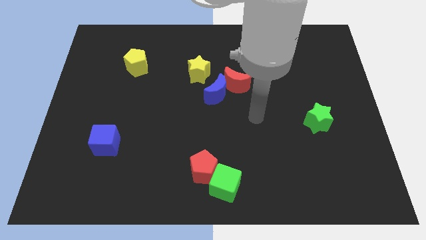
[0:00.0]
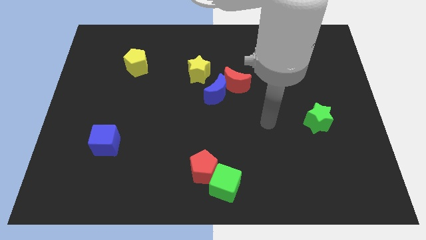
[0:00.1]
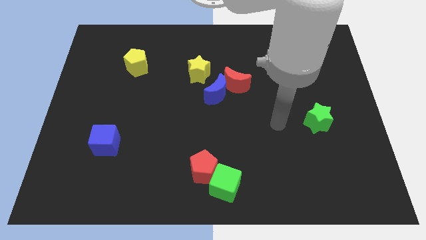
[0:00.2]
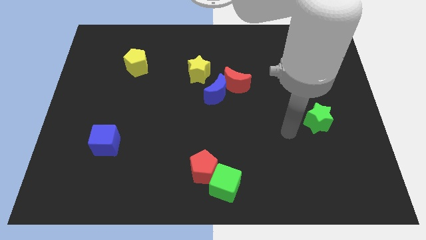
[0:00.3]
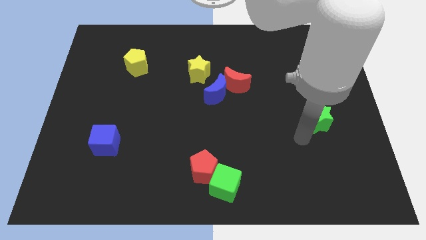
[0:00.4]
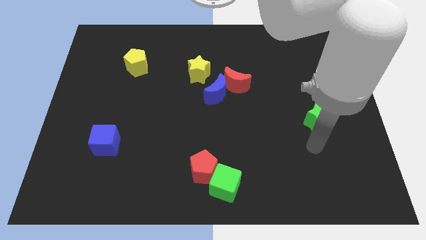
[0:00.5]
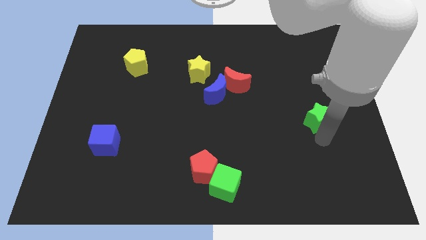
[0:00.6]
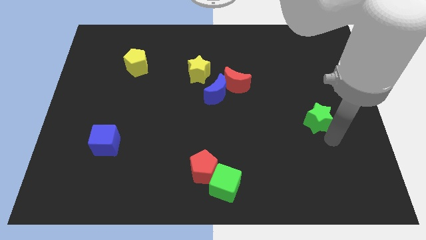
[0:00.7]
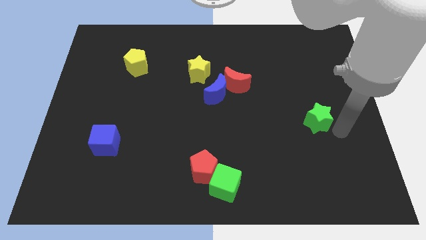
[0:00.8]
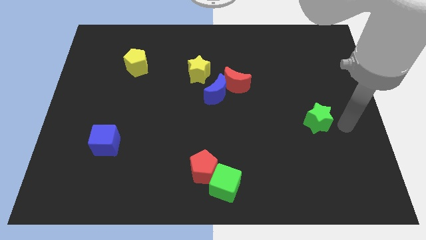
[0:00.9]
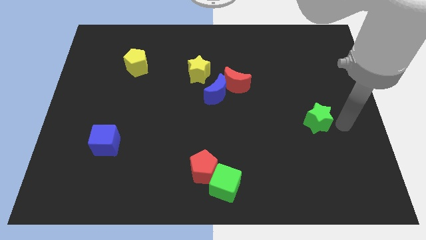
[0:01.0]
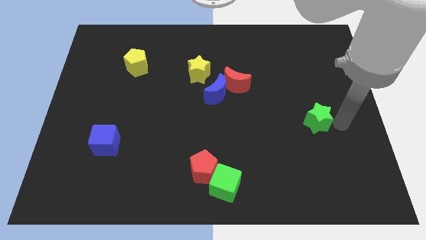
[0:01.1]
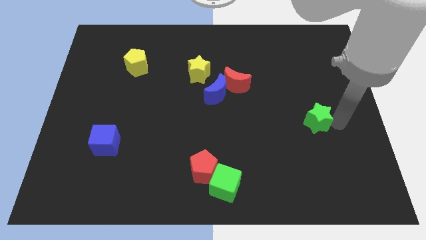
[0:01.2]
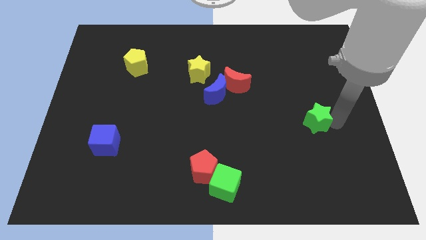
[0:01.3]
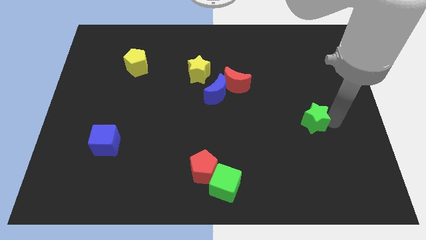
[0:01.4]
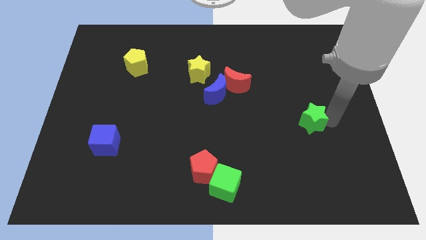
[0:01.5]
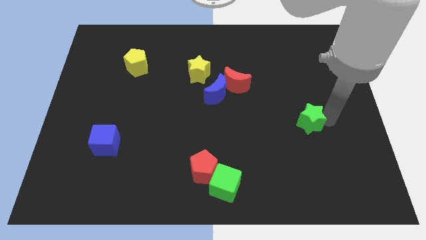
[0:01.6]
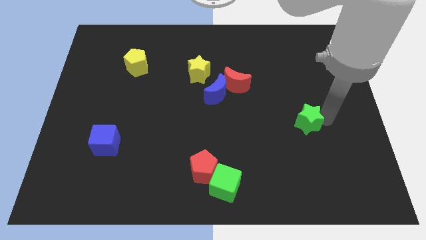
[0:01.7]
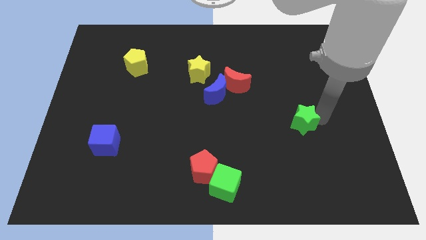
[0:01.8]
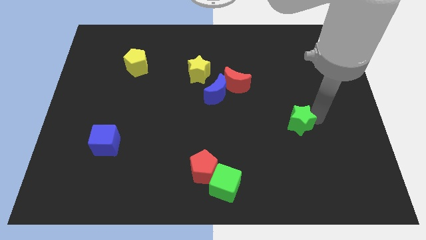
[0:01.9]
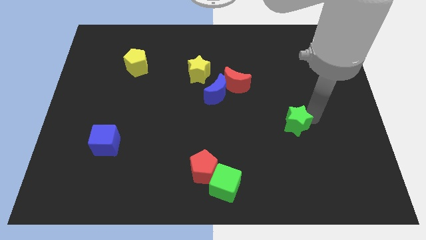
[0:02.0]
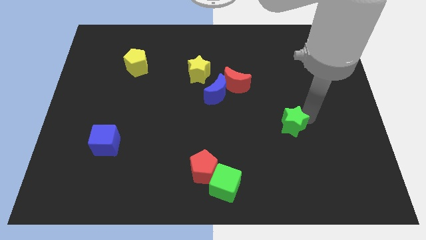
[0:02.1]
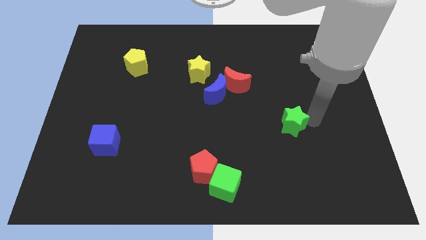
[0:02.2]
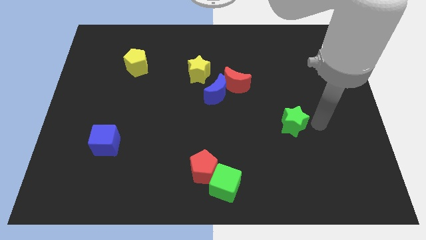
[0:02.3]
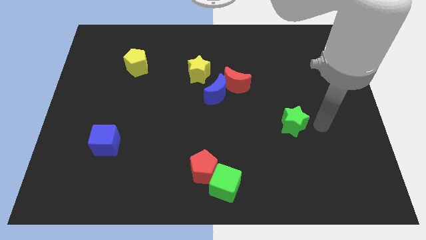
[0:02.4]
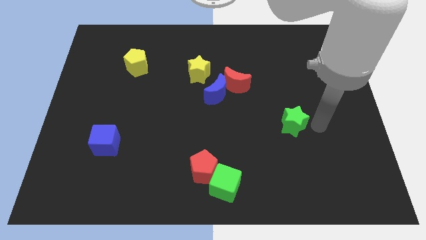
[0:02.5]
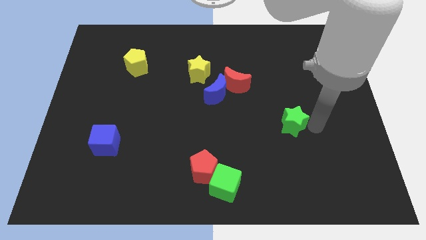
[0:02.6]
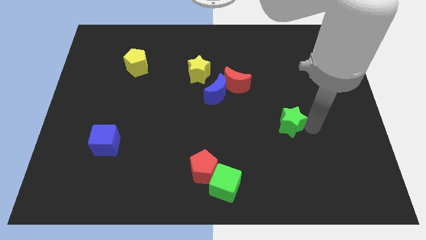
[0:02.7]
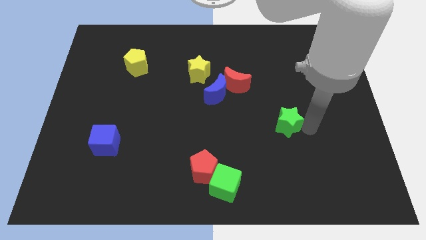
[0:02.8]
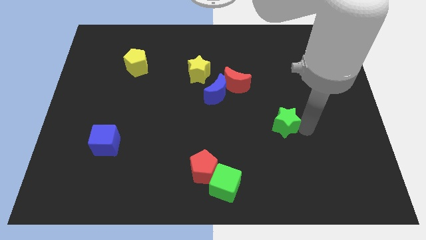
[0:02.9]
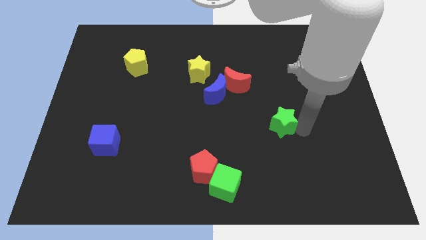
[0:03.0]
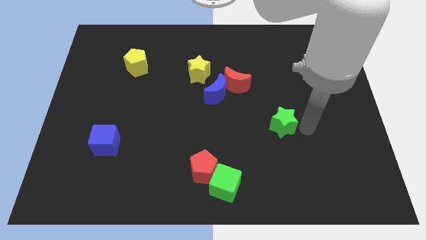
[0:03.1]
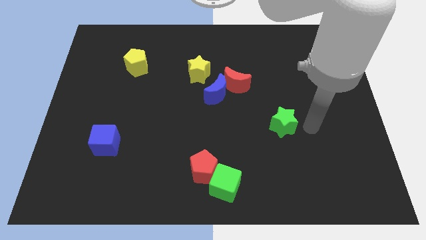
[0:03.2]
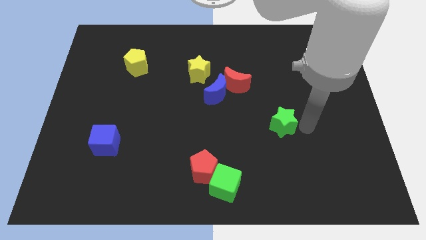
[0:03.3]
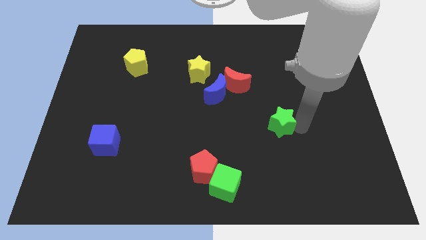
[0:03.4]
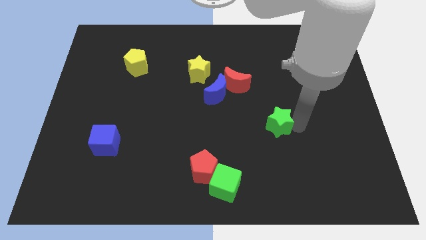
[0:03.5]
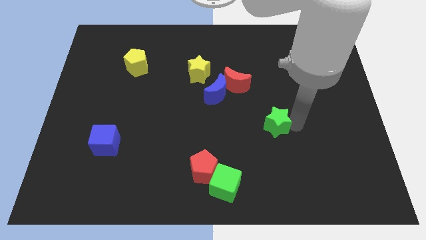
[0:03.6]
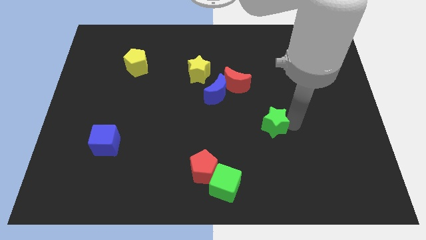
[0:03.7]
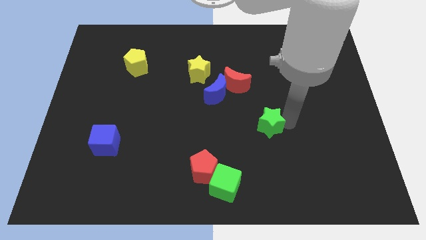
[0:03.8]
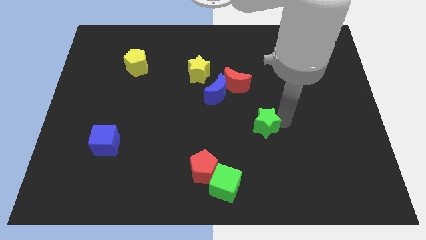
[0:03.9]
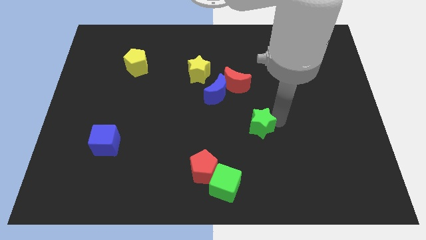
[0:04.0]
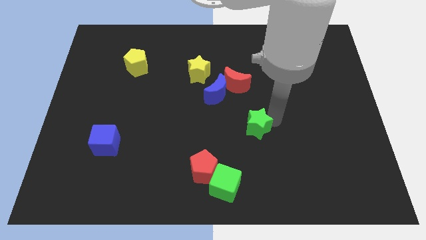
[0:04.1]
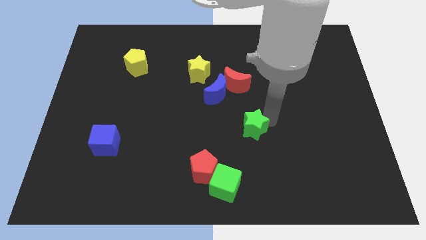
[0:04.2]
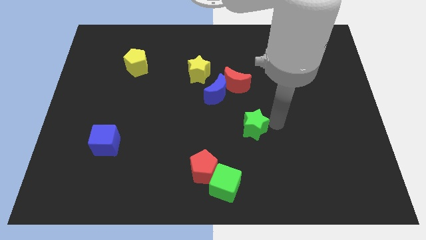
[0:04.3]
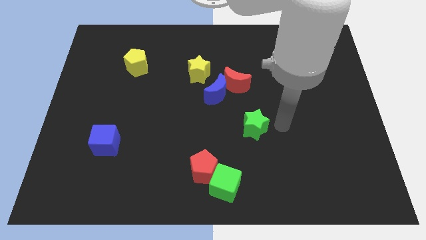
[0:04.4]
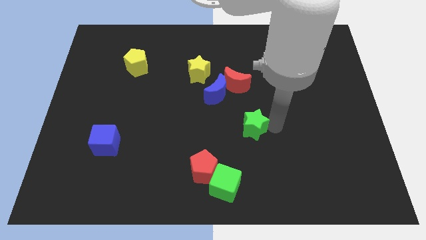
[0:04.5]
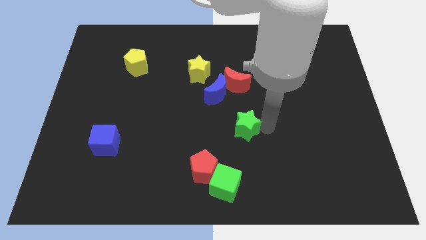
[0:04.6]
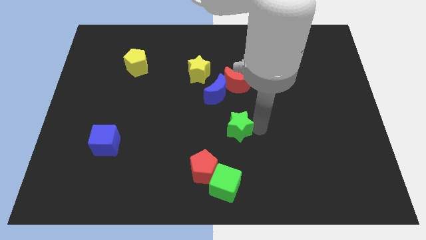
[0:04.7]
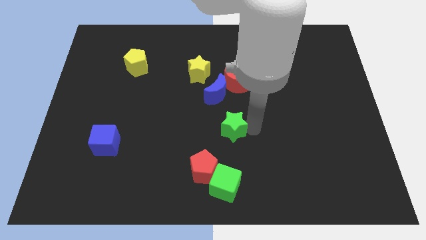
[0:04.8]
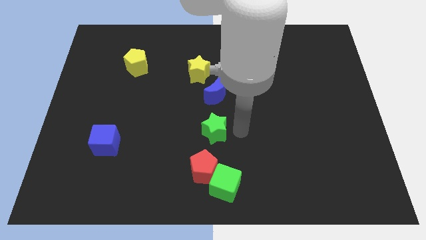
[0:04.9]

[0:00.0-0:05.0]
slide the green star to the left

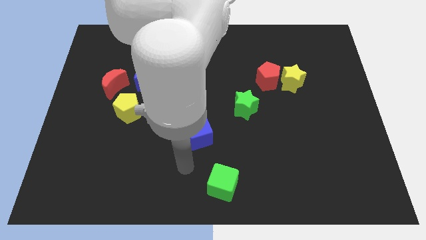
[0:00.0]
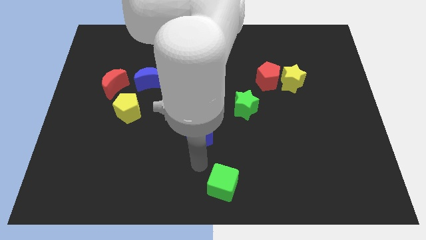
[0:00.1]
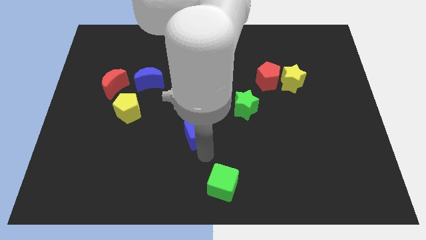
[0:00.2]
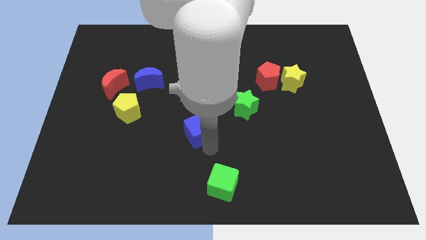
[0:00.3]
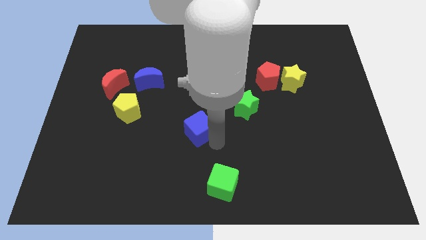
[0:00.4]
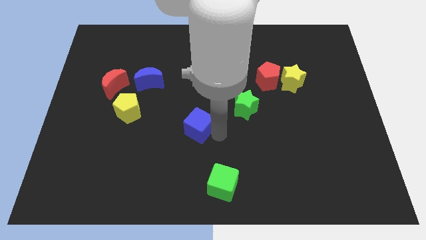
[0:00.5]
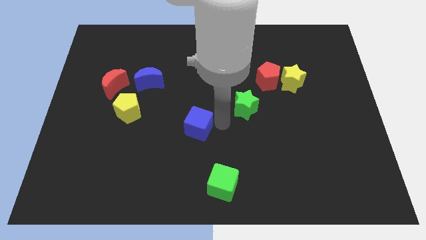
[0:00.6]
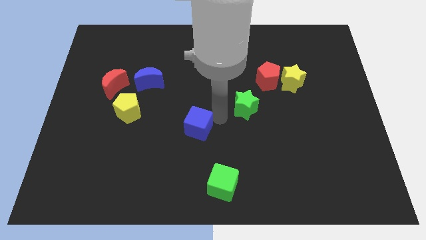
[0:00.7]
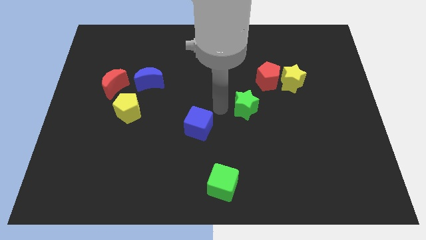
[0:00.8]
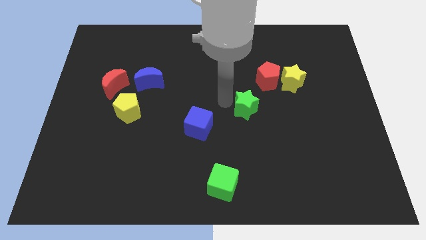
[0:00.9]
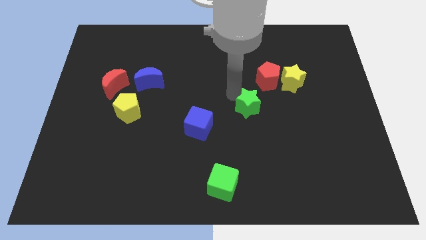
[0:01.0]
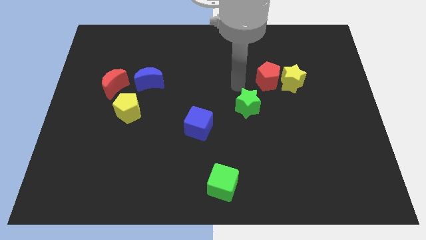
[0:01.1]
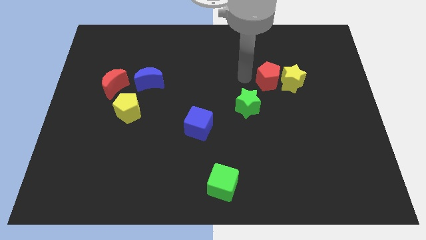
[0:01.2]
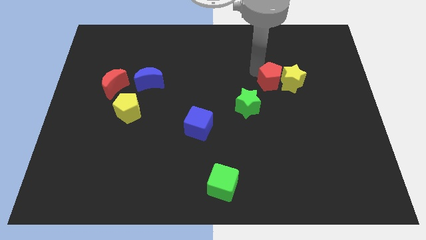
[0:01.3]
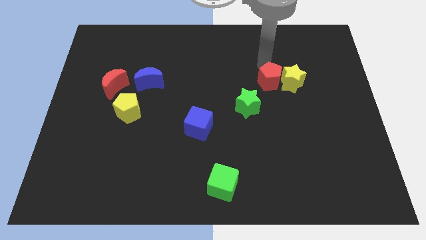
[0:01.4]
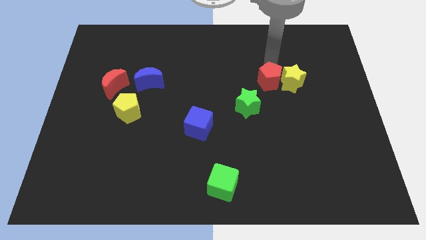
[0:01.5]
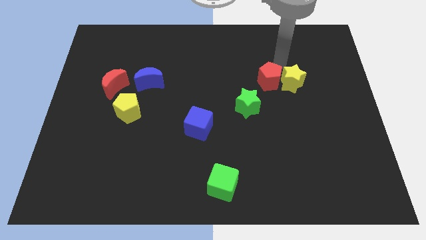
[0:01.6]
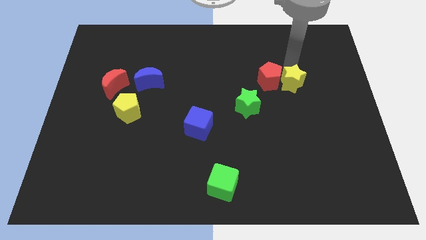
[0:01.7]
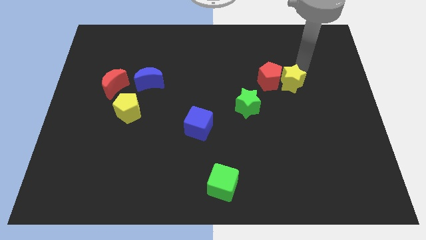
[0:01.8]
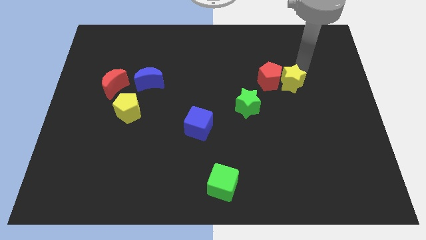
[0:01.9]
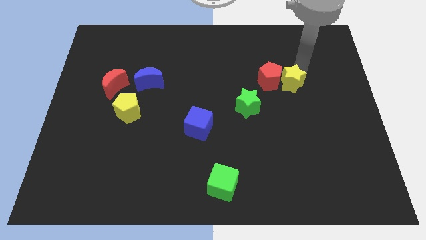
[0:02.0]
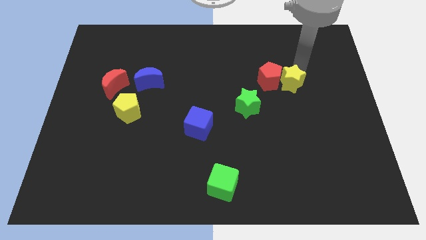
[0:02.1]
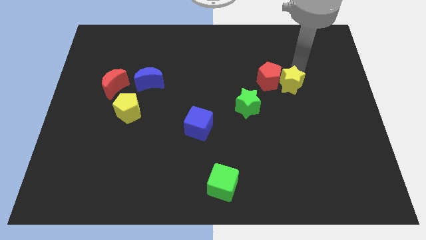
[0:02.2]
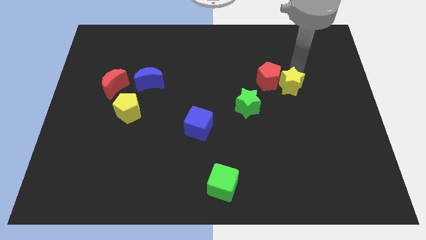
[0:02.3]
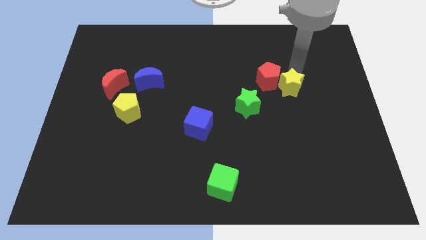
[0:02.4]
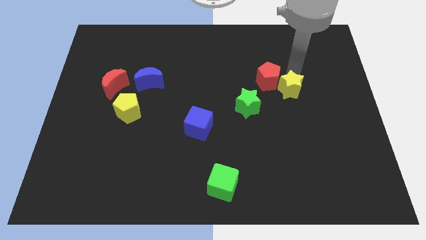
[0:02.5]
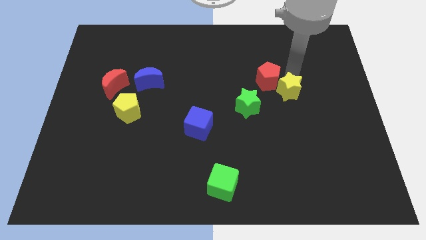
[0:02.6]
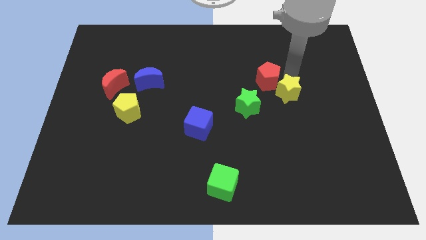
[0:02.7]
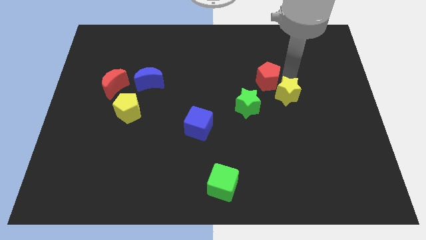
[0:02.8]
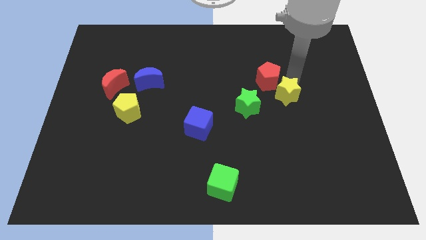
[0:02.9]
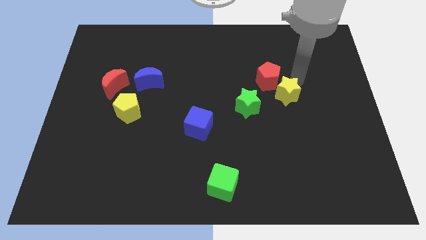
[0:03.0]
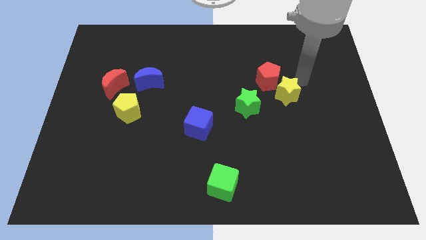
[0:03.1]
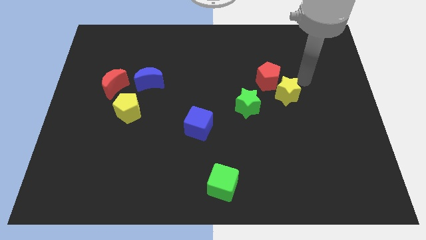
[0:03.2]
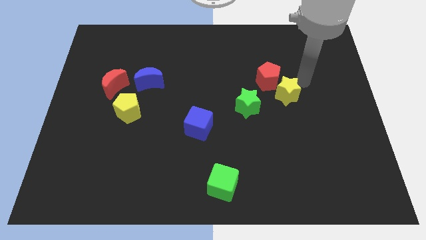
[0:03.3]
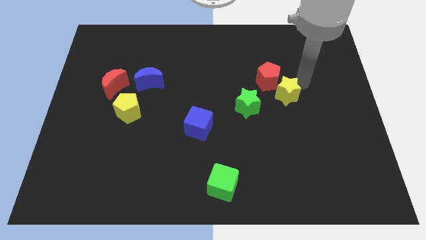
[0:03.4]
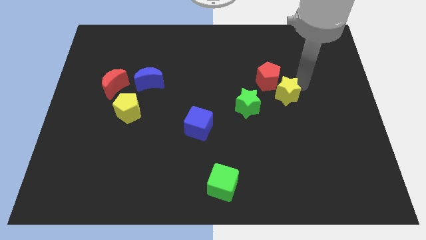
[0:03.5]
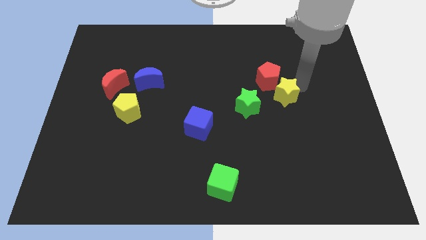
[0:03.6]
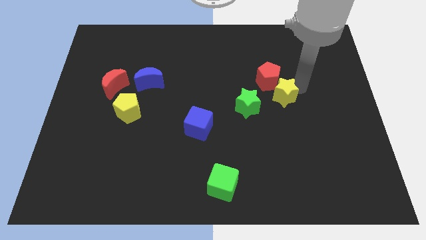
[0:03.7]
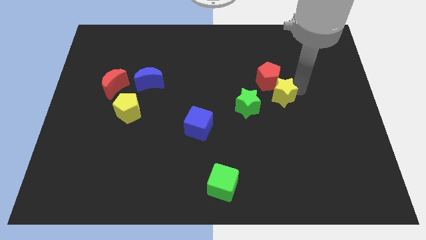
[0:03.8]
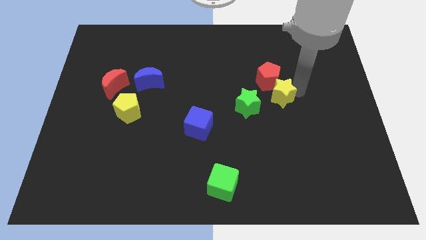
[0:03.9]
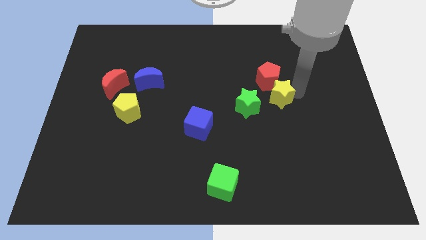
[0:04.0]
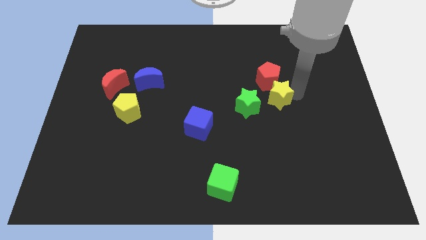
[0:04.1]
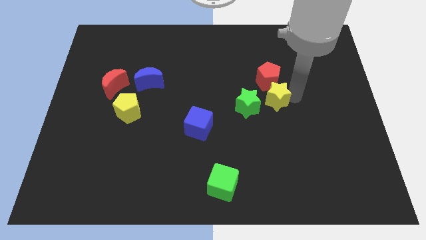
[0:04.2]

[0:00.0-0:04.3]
move the yellow star down and to the left diagonally slightly
